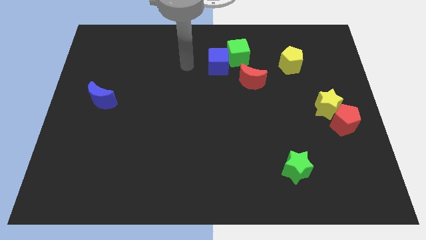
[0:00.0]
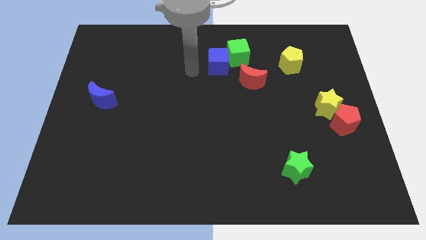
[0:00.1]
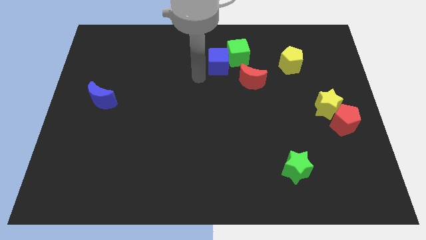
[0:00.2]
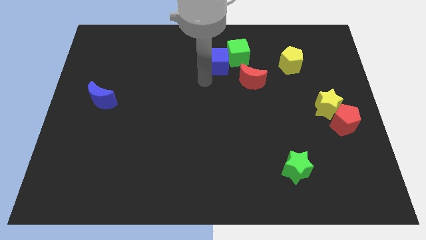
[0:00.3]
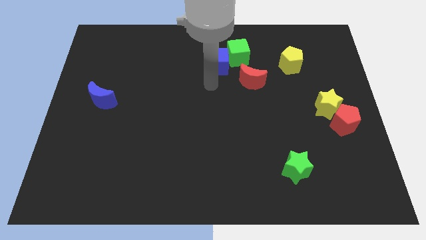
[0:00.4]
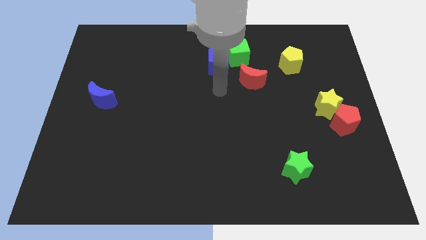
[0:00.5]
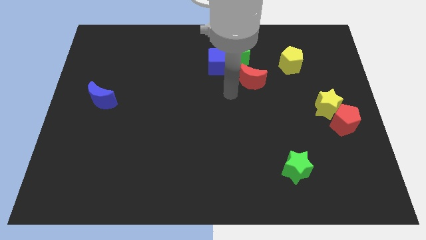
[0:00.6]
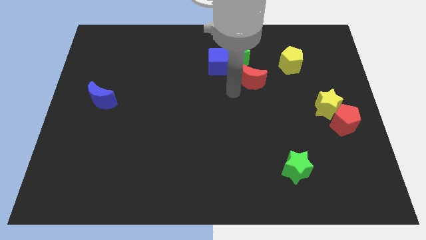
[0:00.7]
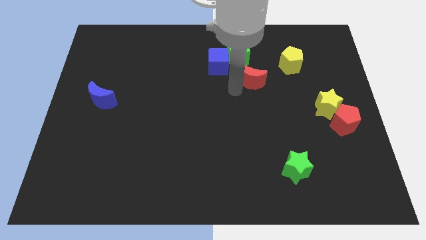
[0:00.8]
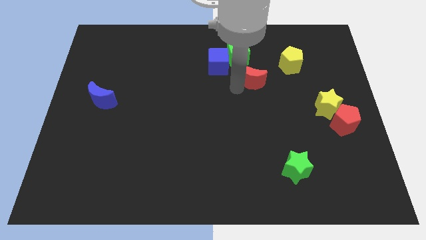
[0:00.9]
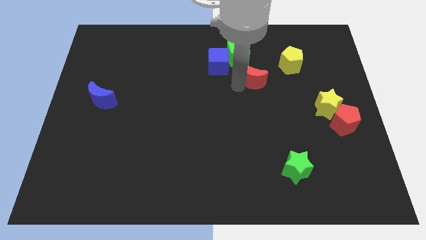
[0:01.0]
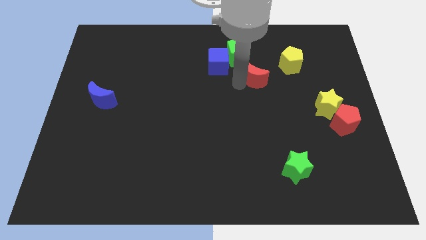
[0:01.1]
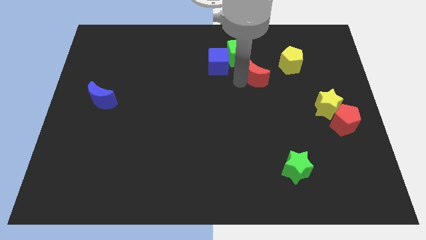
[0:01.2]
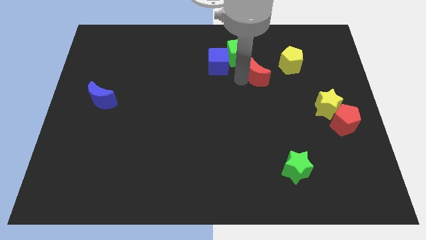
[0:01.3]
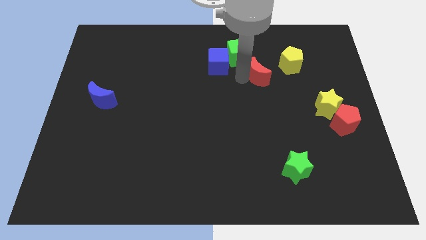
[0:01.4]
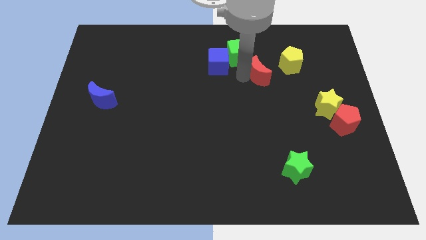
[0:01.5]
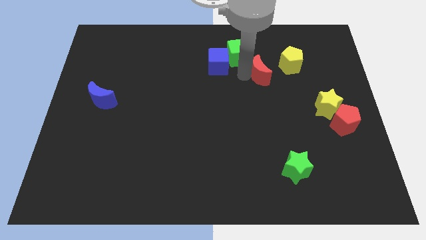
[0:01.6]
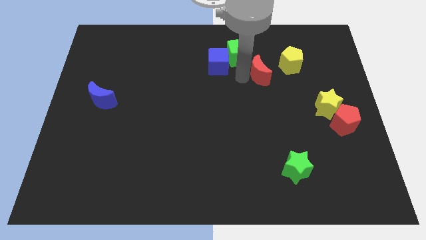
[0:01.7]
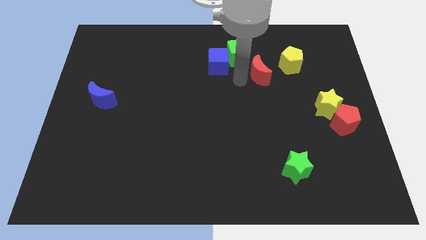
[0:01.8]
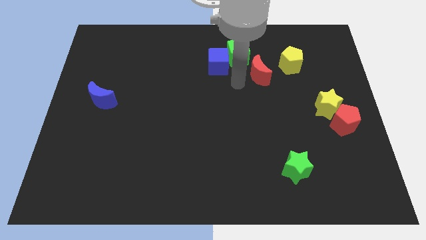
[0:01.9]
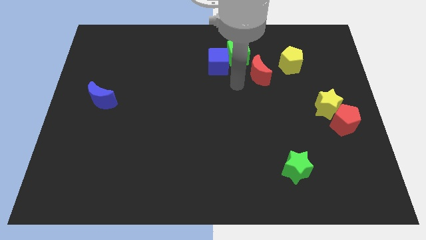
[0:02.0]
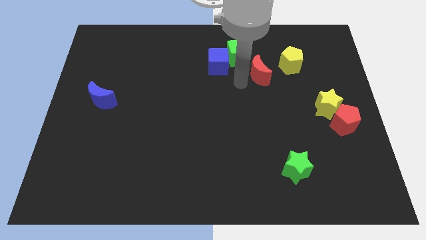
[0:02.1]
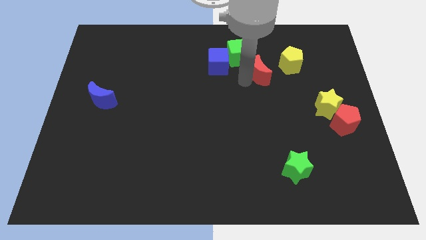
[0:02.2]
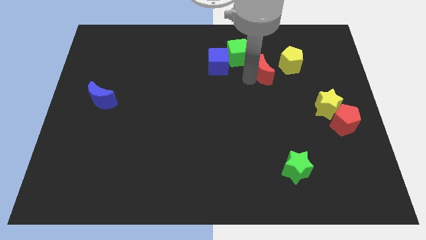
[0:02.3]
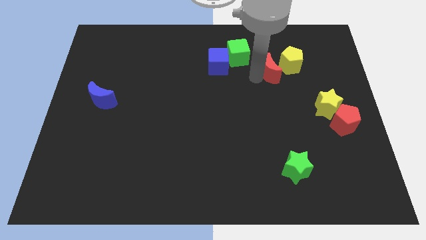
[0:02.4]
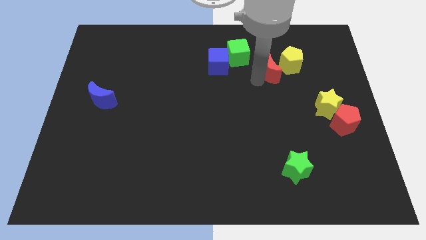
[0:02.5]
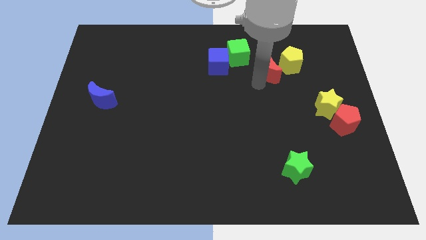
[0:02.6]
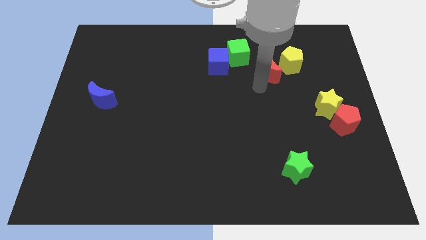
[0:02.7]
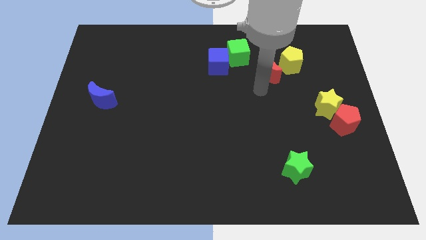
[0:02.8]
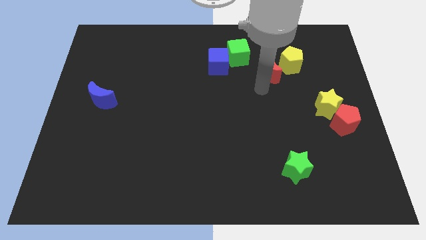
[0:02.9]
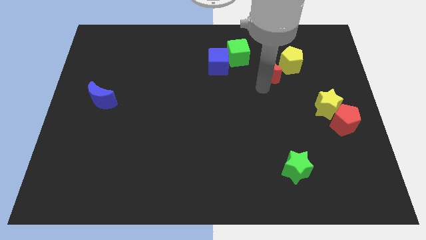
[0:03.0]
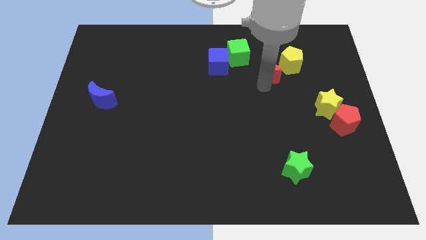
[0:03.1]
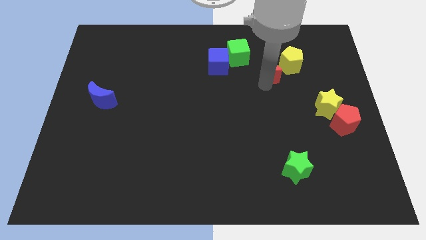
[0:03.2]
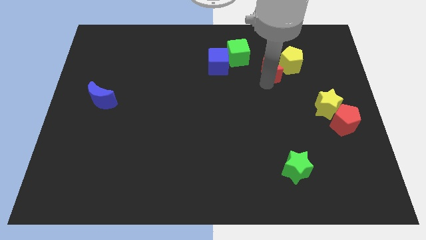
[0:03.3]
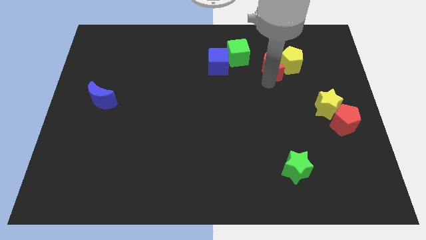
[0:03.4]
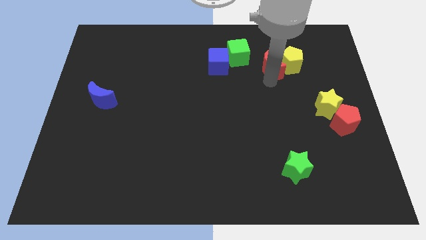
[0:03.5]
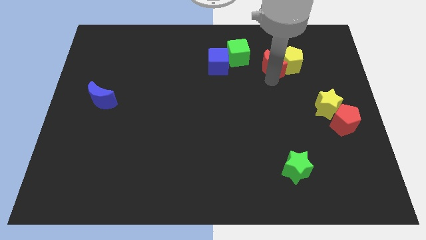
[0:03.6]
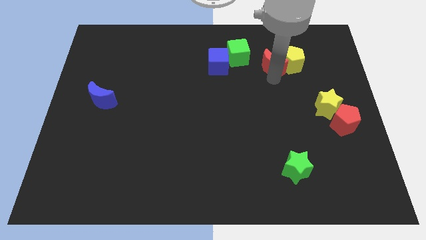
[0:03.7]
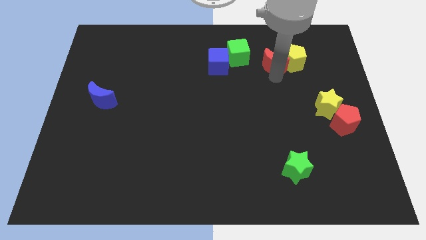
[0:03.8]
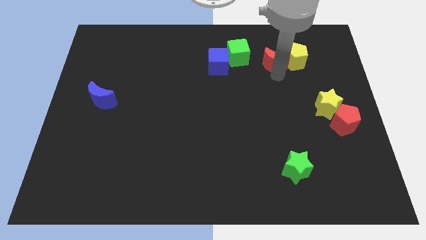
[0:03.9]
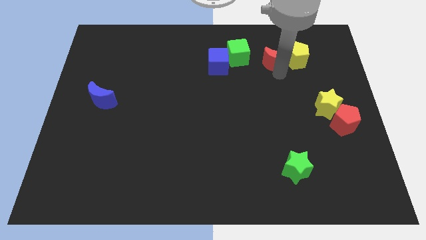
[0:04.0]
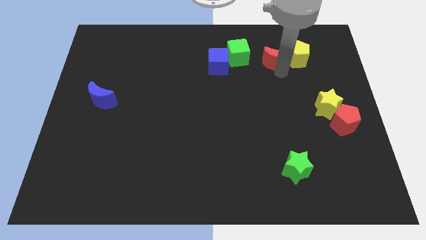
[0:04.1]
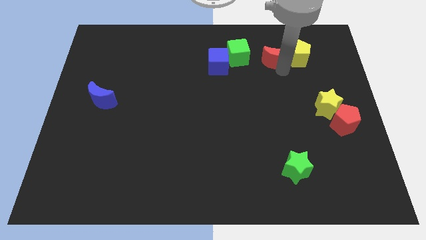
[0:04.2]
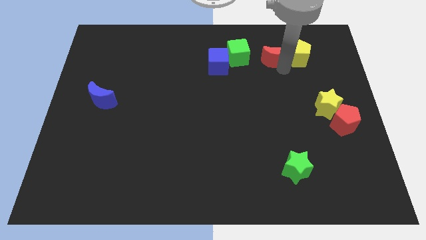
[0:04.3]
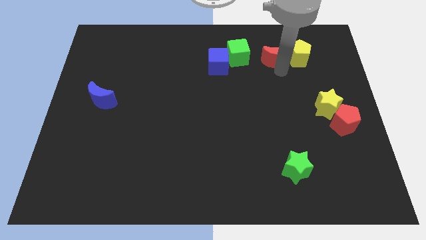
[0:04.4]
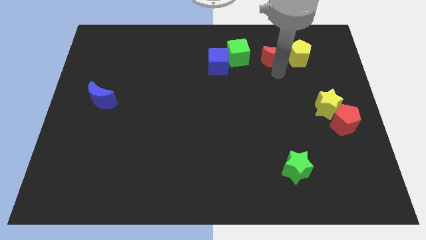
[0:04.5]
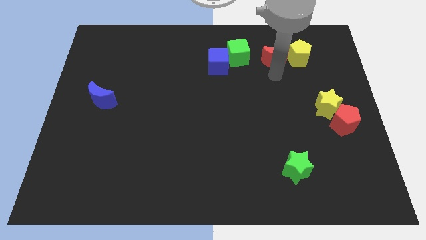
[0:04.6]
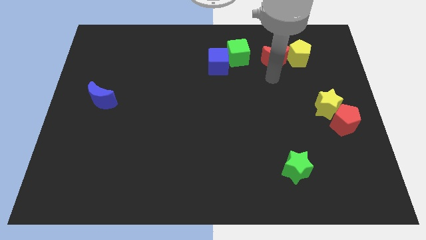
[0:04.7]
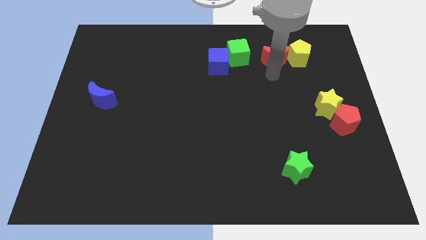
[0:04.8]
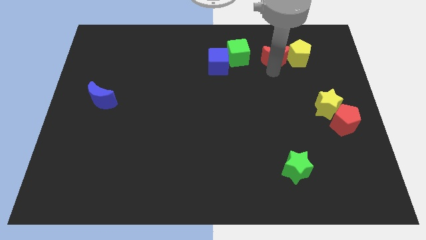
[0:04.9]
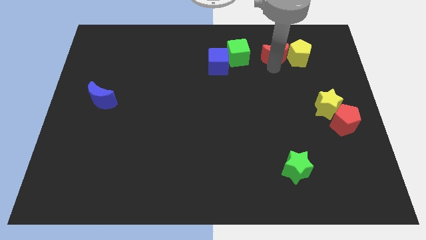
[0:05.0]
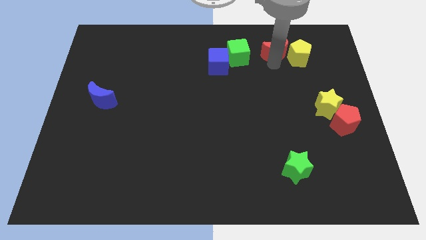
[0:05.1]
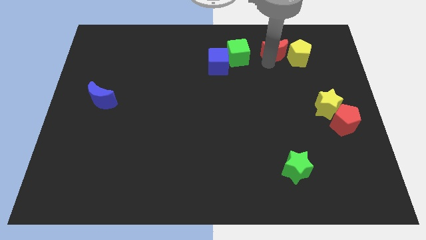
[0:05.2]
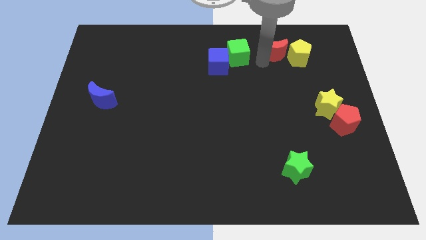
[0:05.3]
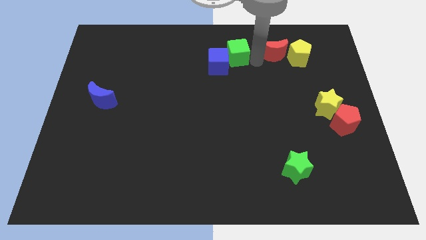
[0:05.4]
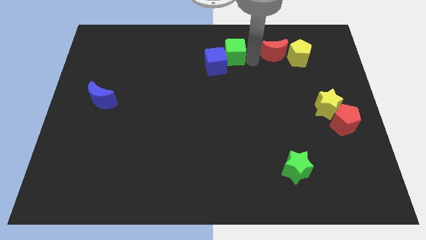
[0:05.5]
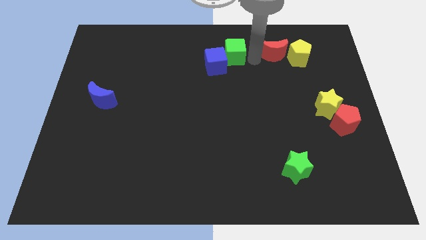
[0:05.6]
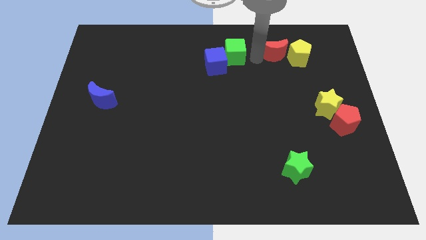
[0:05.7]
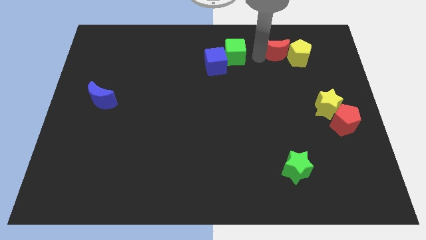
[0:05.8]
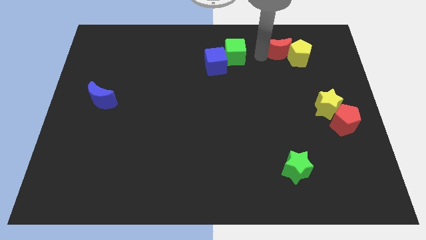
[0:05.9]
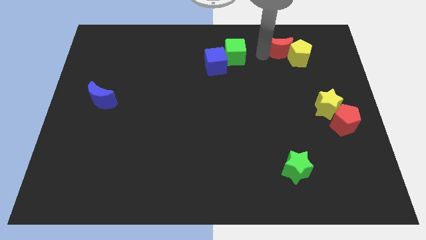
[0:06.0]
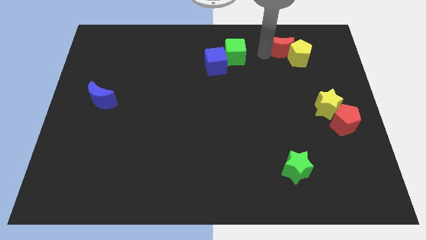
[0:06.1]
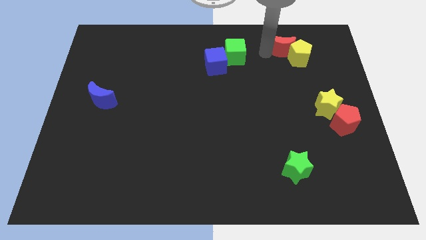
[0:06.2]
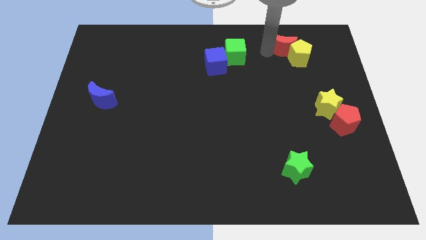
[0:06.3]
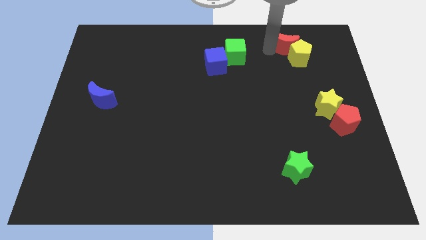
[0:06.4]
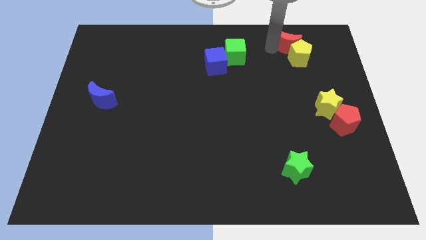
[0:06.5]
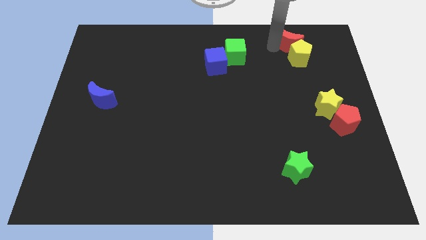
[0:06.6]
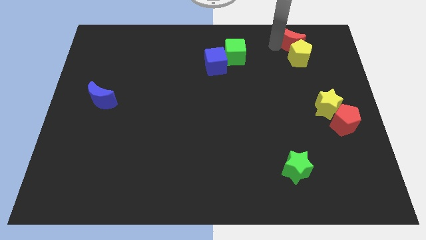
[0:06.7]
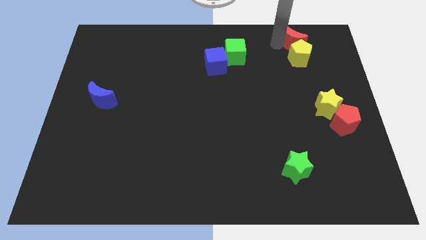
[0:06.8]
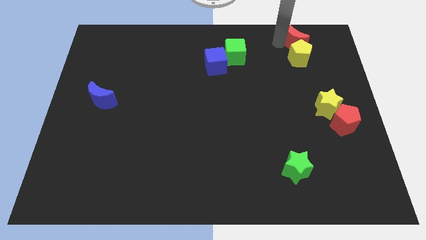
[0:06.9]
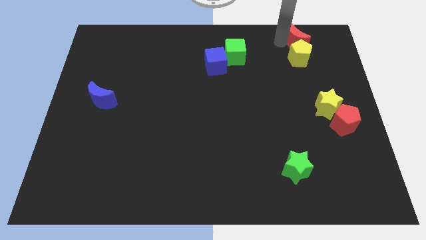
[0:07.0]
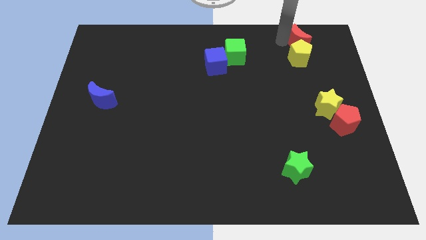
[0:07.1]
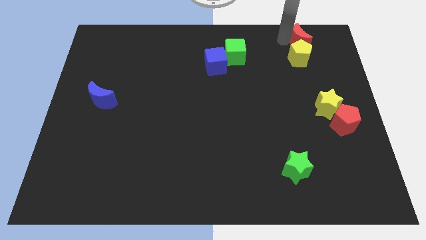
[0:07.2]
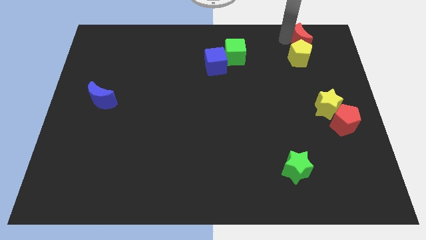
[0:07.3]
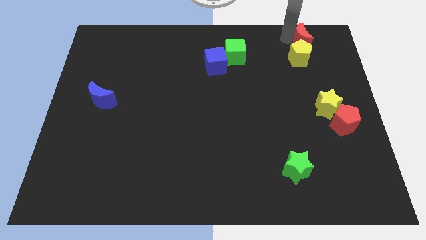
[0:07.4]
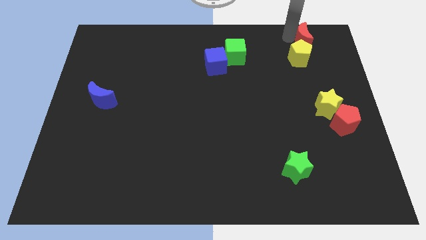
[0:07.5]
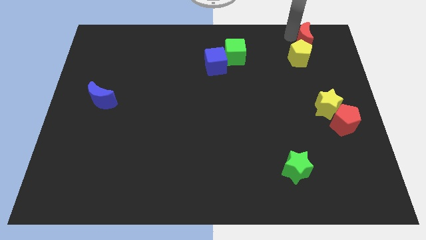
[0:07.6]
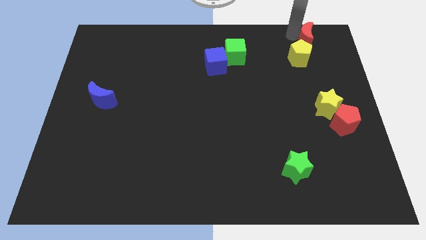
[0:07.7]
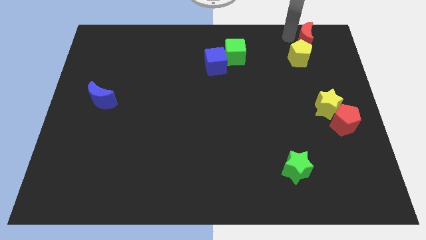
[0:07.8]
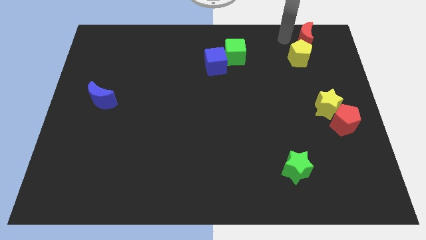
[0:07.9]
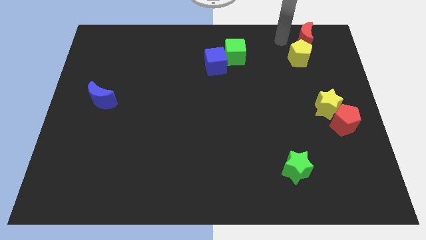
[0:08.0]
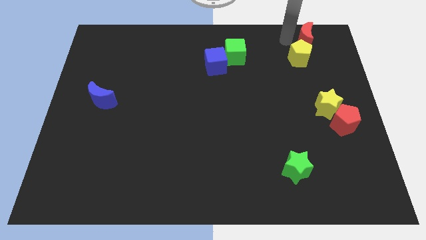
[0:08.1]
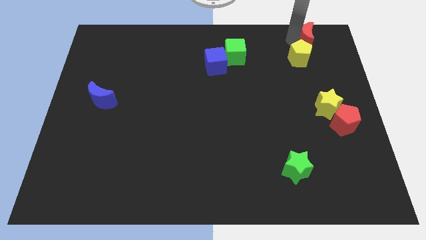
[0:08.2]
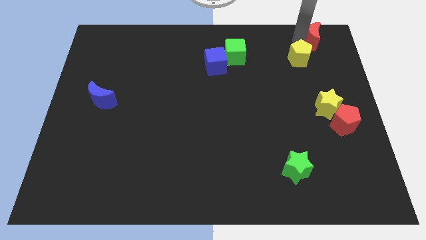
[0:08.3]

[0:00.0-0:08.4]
push the red moon to the top right
